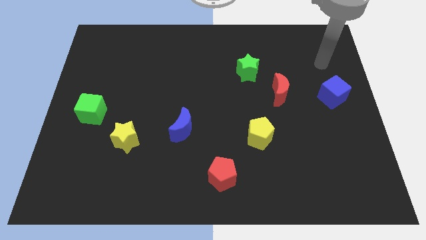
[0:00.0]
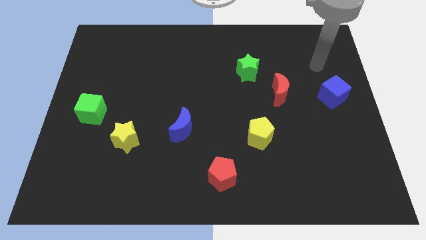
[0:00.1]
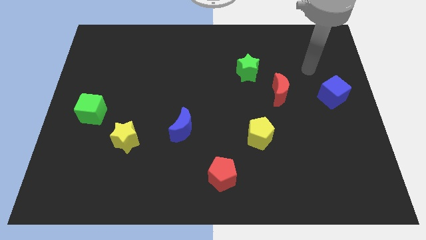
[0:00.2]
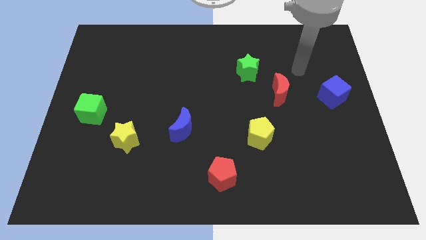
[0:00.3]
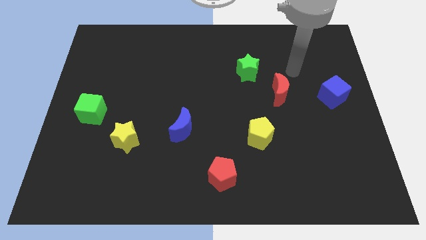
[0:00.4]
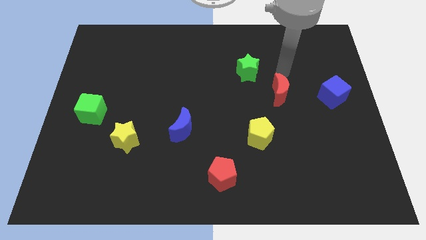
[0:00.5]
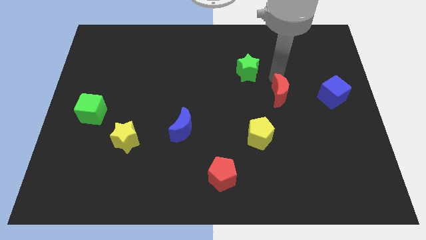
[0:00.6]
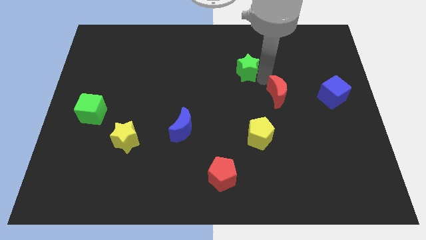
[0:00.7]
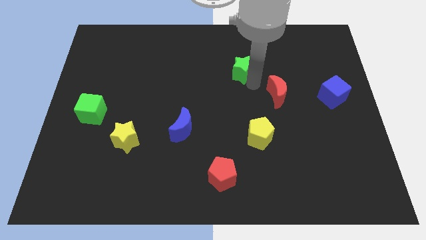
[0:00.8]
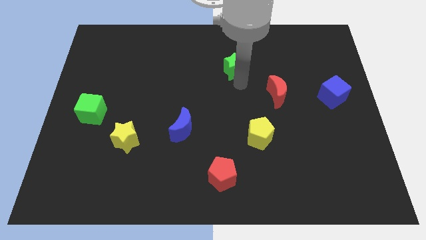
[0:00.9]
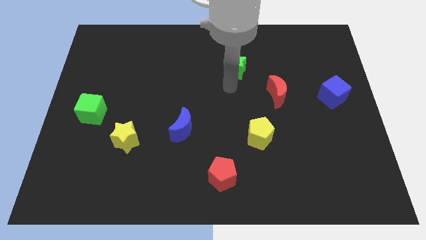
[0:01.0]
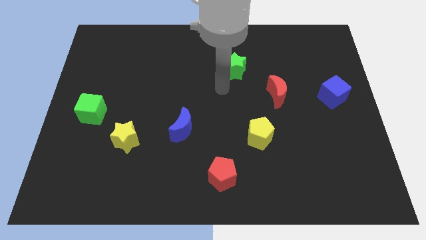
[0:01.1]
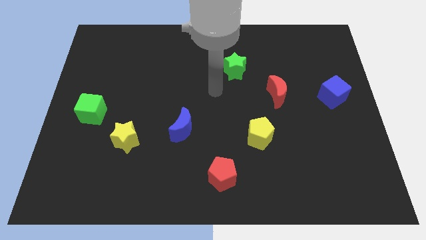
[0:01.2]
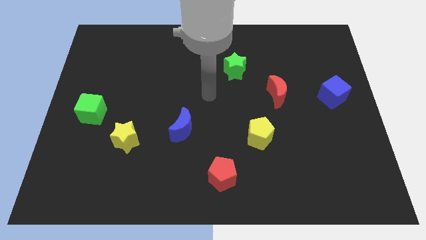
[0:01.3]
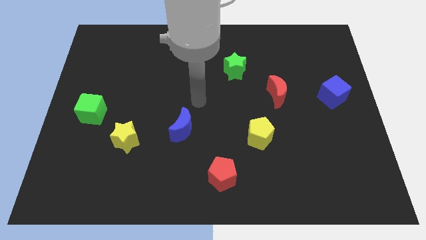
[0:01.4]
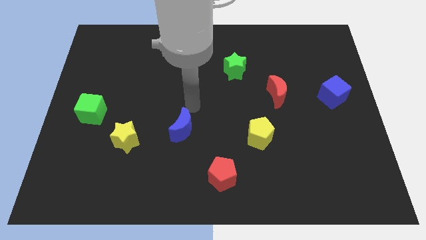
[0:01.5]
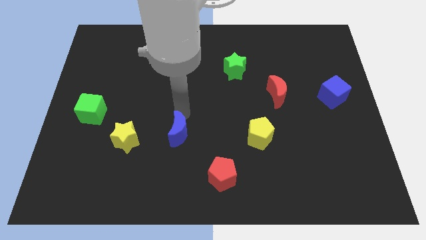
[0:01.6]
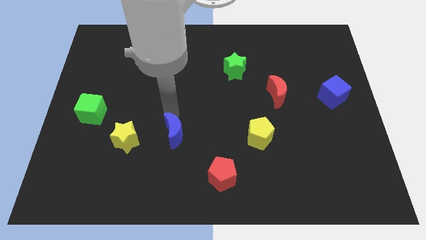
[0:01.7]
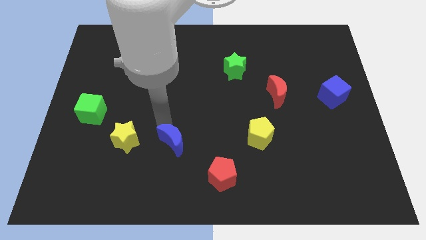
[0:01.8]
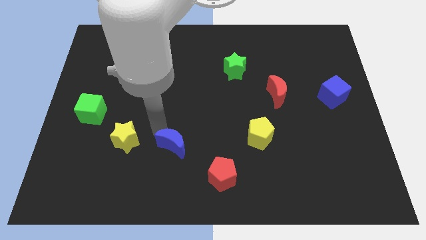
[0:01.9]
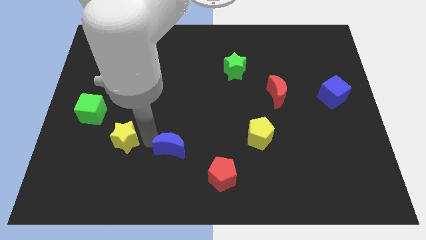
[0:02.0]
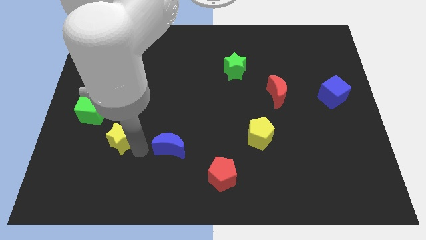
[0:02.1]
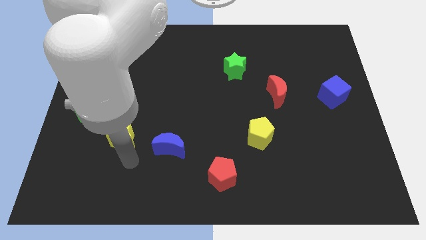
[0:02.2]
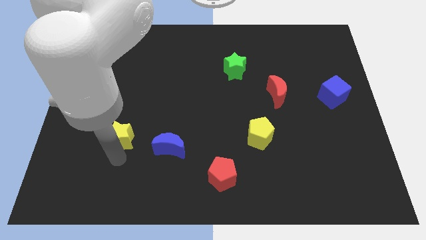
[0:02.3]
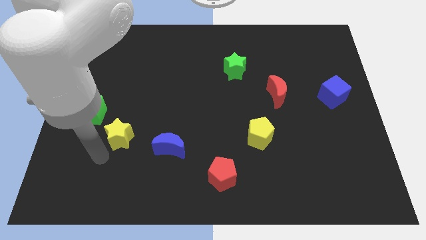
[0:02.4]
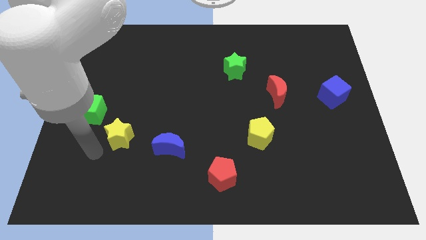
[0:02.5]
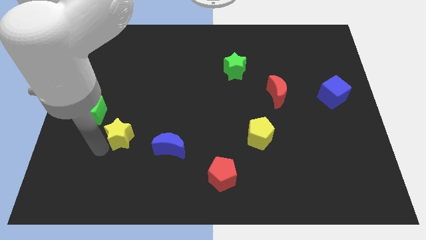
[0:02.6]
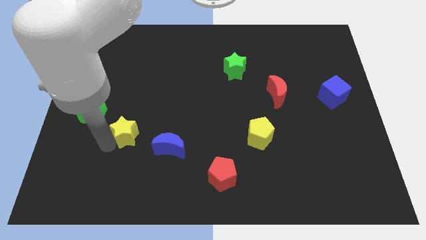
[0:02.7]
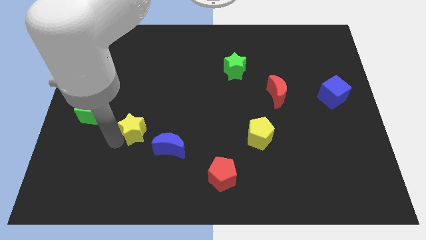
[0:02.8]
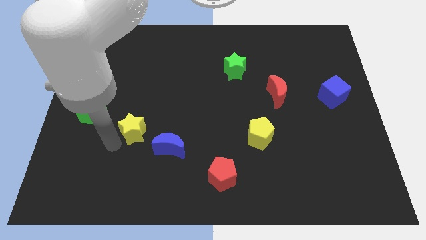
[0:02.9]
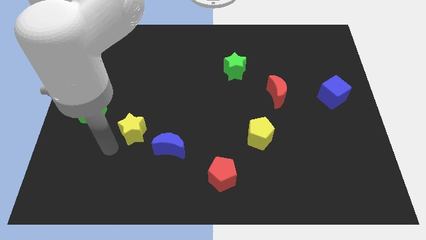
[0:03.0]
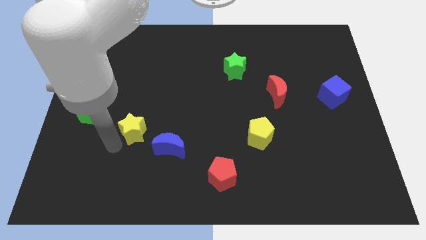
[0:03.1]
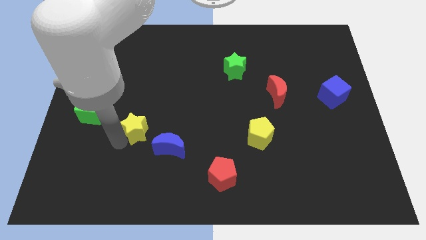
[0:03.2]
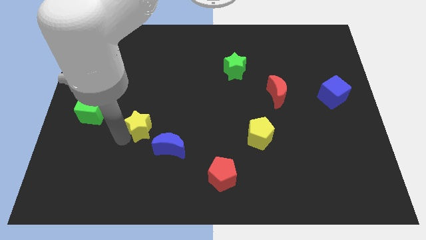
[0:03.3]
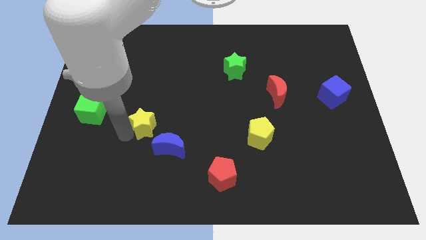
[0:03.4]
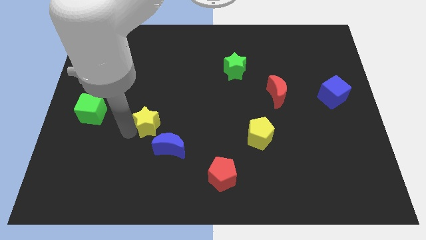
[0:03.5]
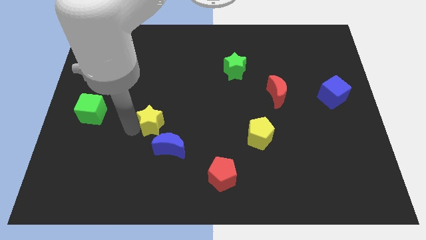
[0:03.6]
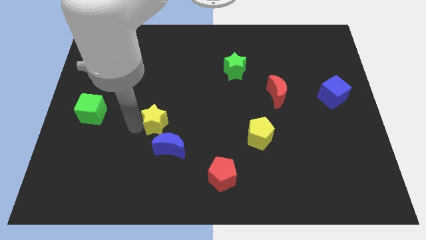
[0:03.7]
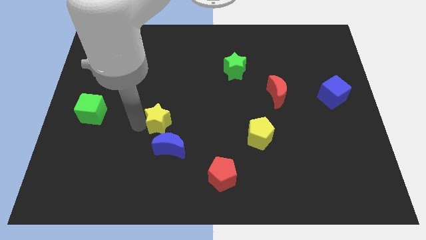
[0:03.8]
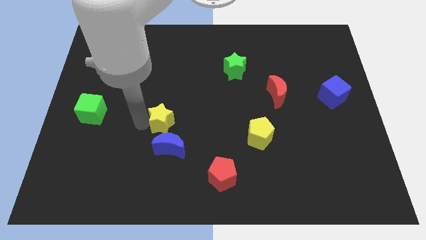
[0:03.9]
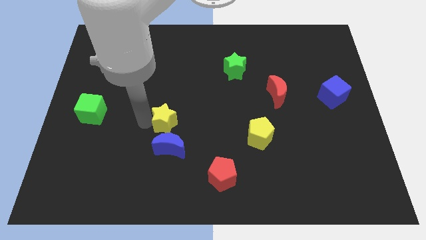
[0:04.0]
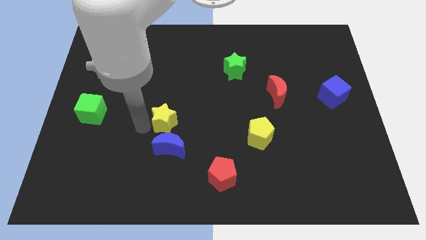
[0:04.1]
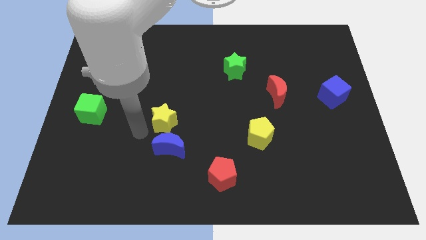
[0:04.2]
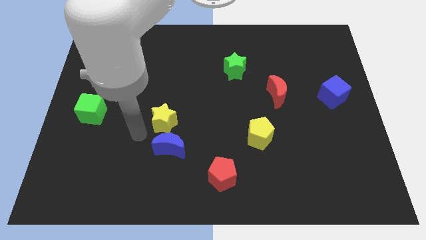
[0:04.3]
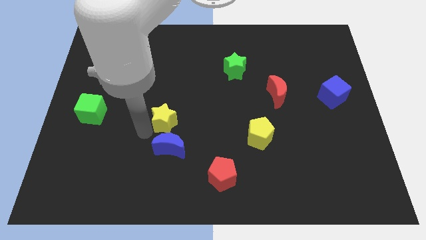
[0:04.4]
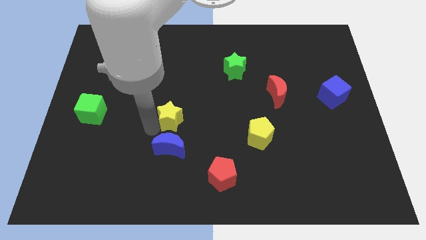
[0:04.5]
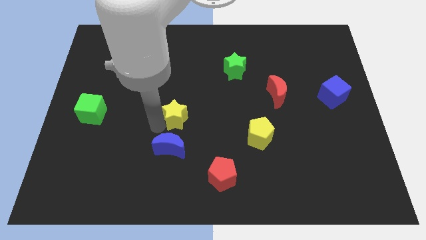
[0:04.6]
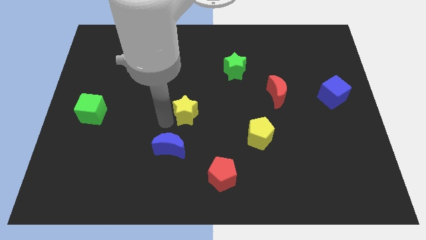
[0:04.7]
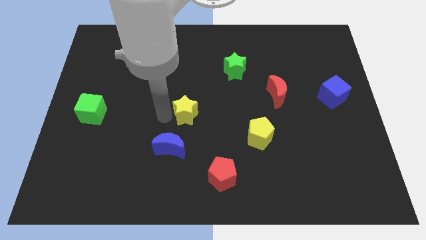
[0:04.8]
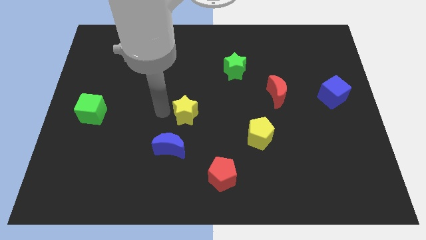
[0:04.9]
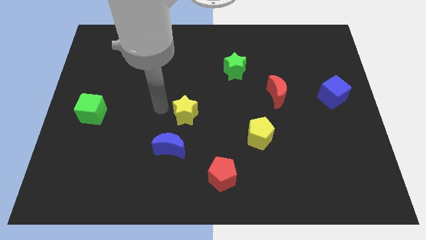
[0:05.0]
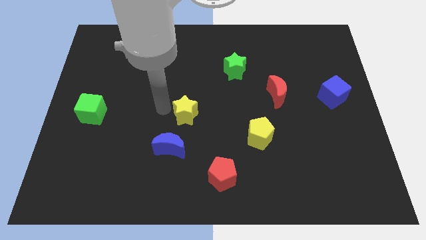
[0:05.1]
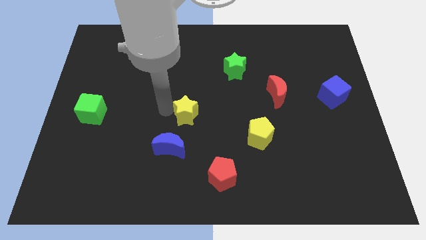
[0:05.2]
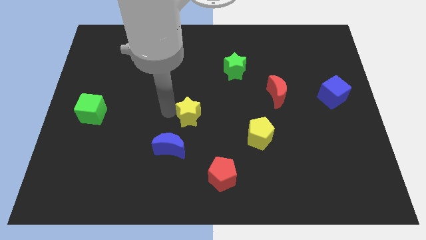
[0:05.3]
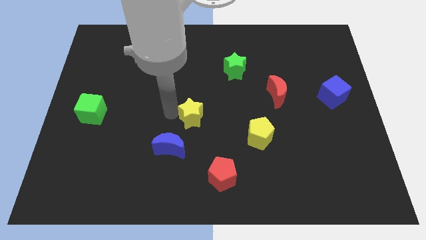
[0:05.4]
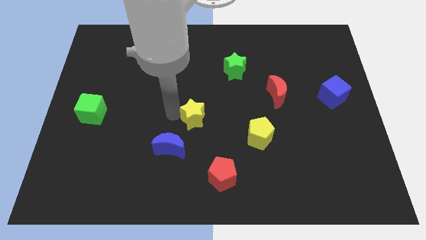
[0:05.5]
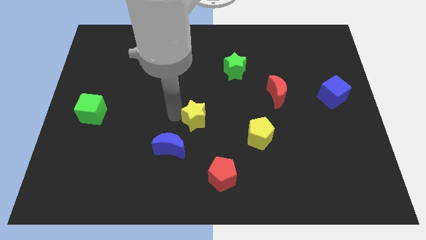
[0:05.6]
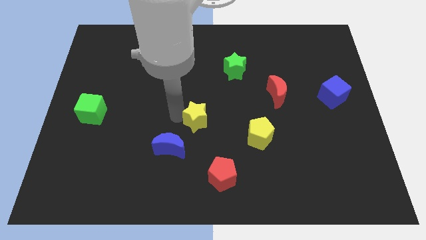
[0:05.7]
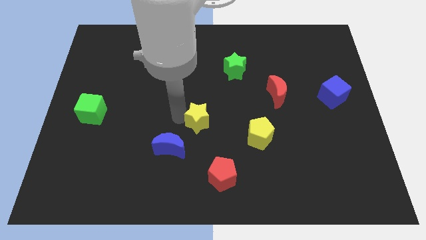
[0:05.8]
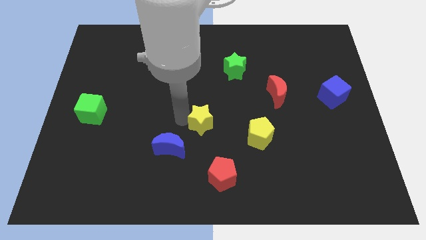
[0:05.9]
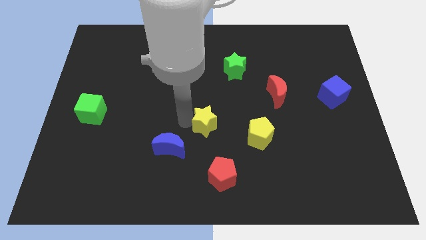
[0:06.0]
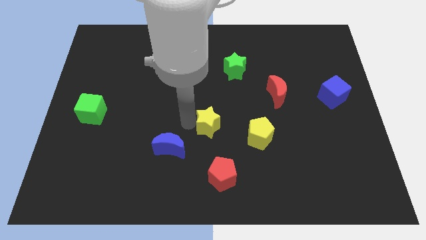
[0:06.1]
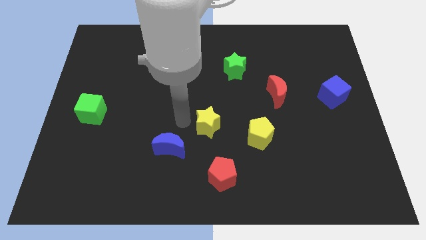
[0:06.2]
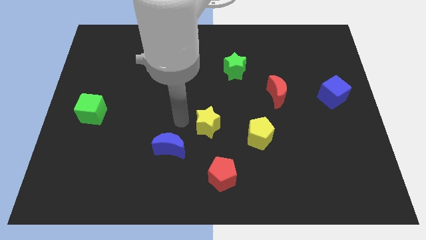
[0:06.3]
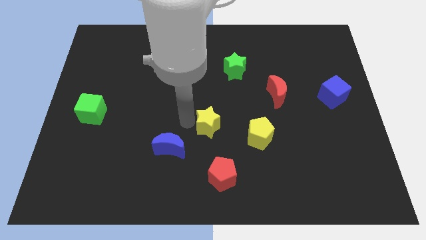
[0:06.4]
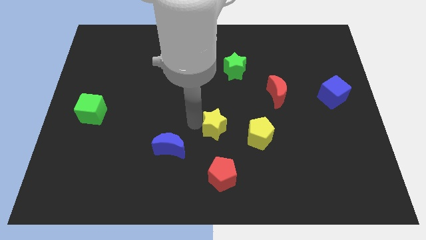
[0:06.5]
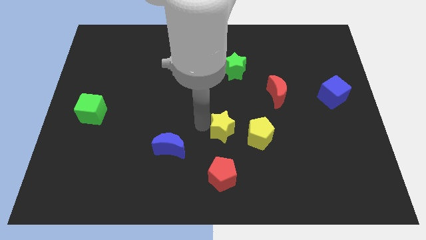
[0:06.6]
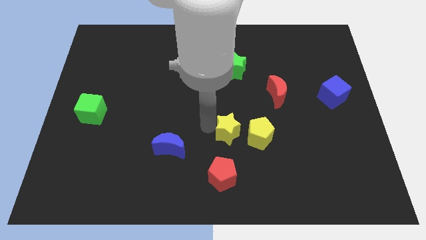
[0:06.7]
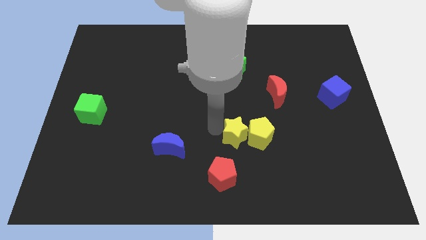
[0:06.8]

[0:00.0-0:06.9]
slide the yellow star towards the yellow pentagon
